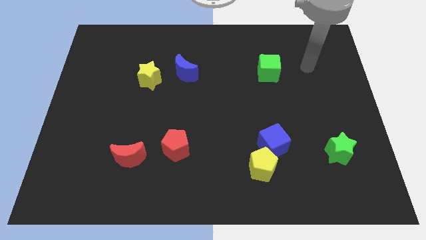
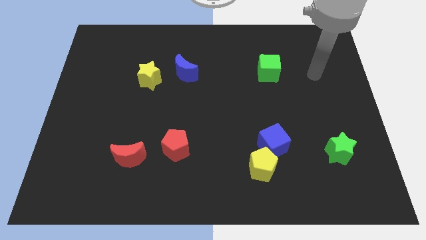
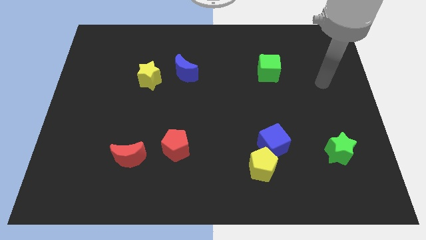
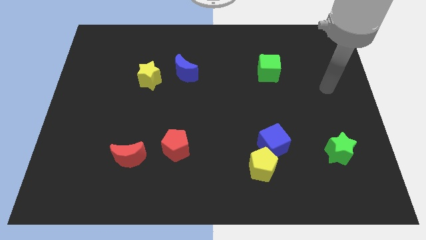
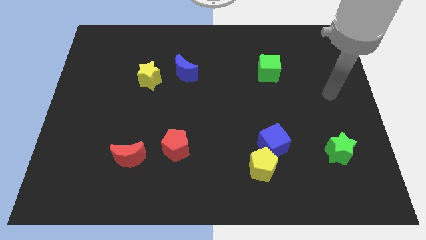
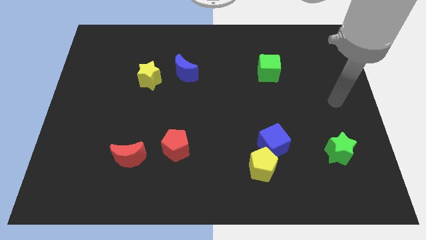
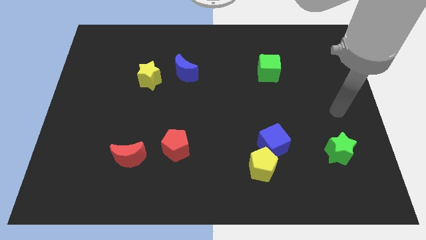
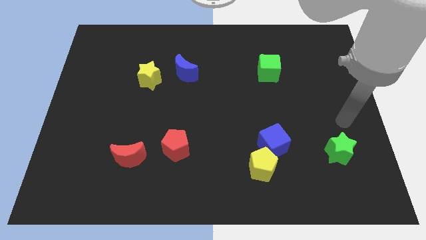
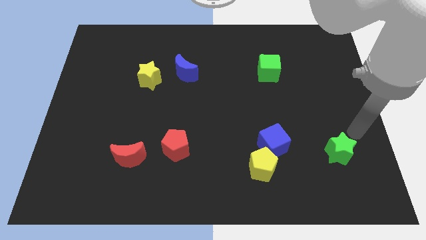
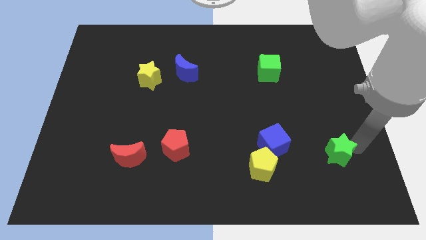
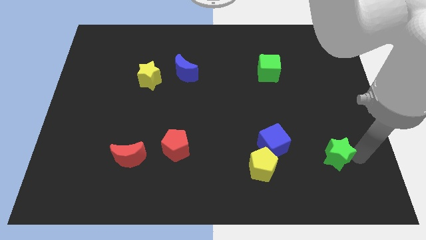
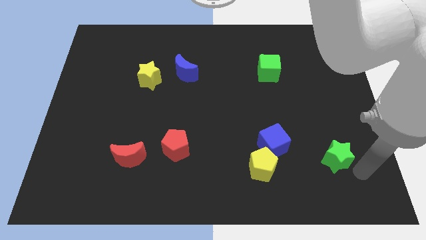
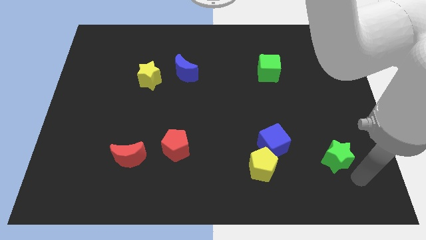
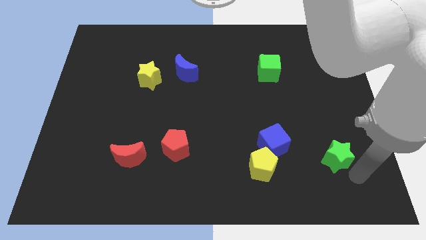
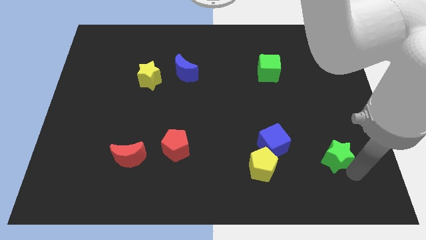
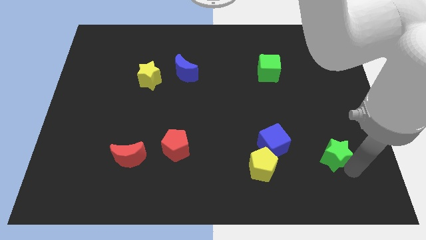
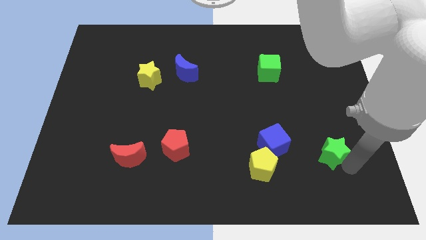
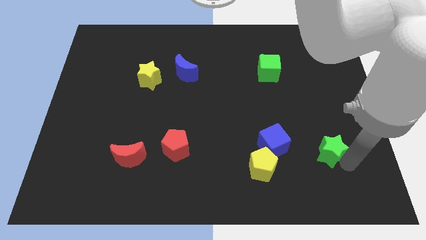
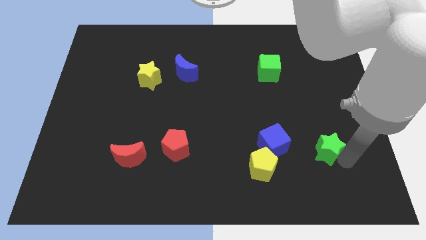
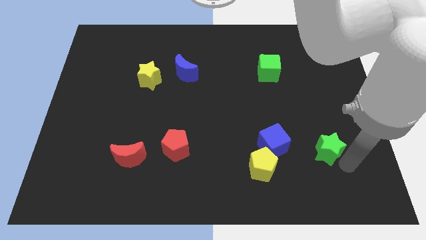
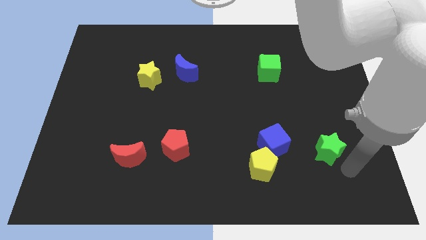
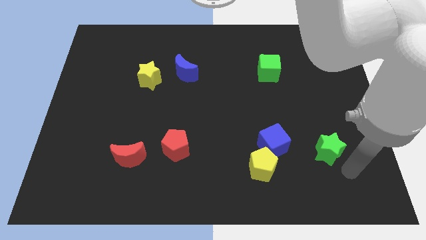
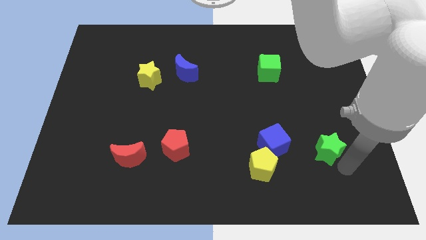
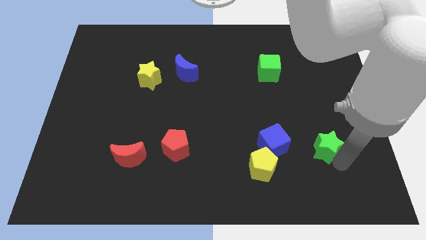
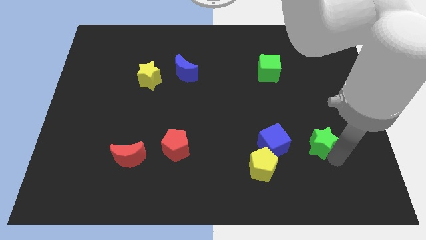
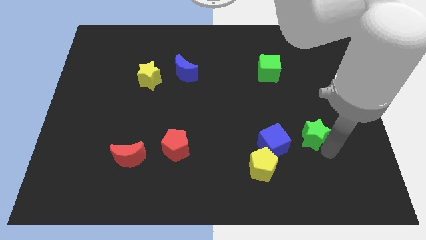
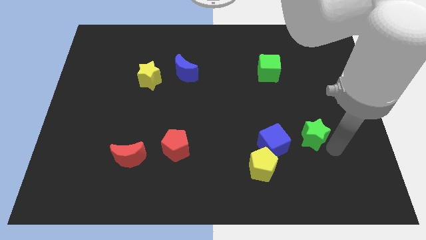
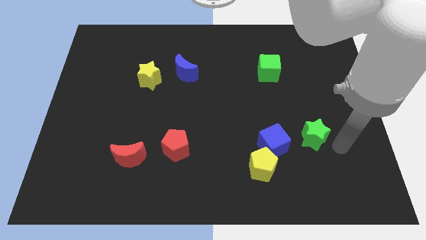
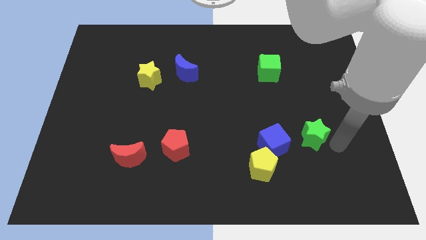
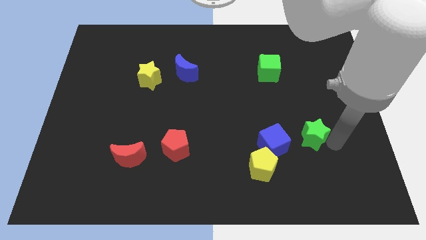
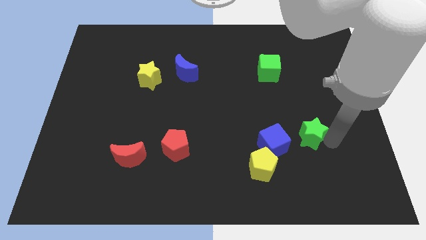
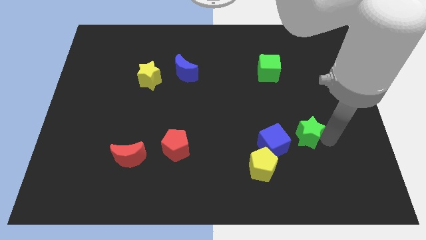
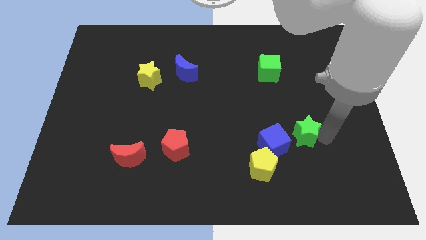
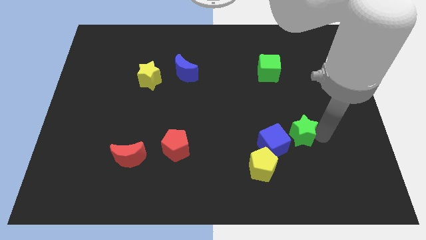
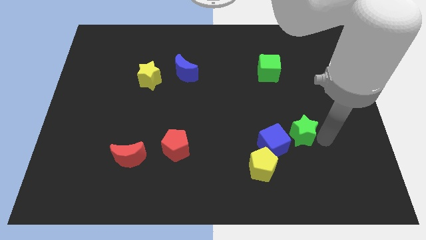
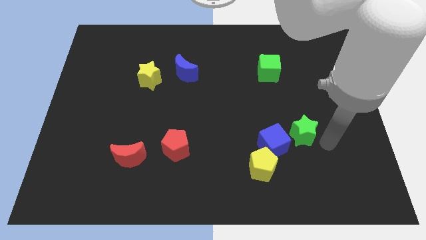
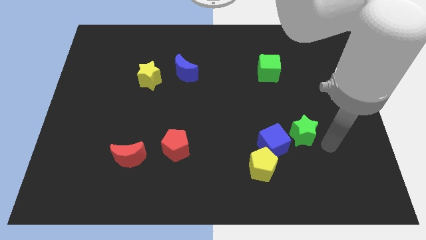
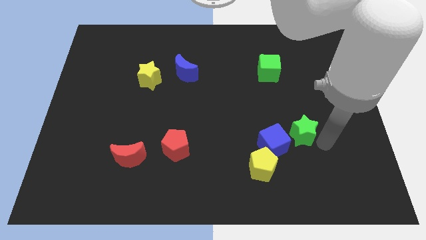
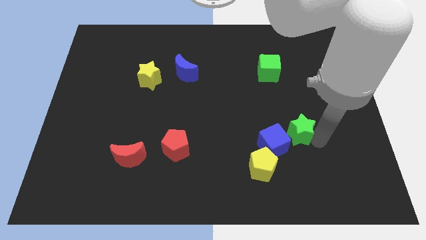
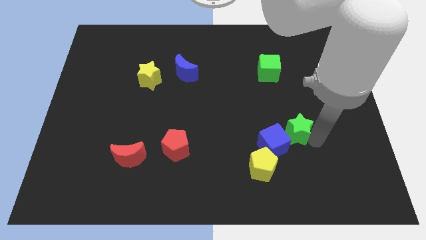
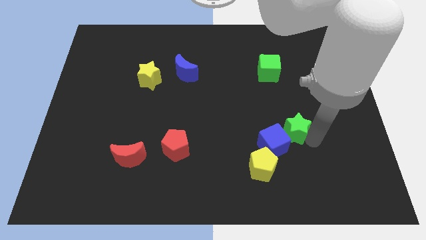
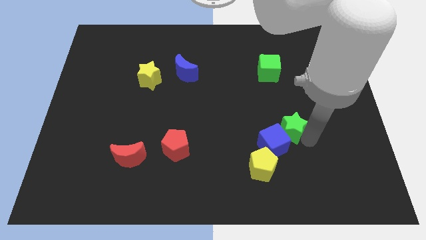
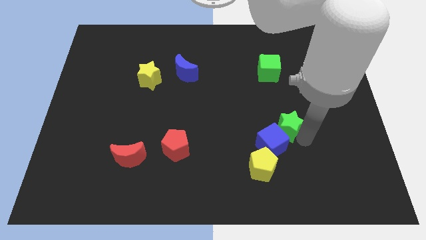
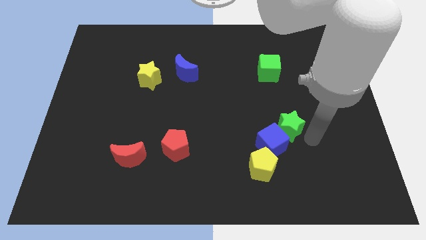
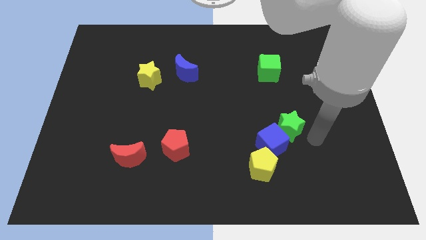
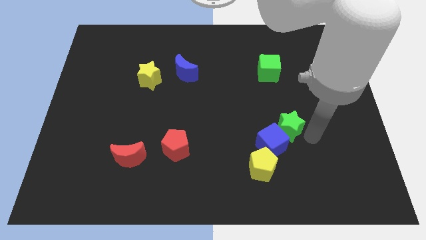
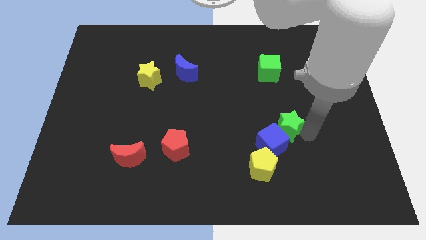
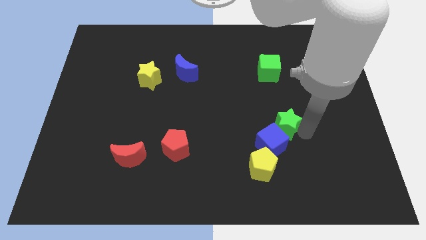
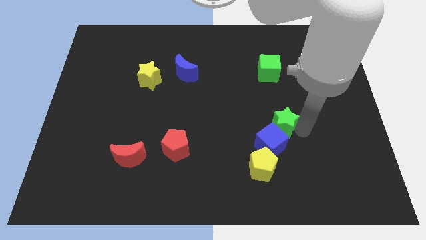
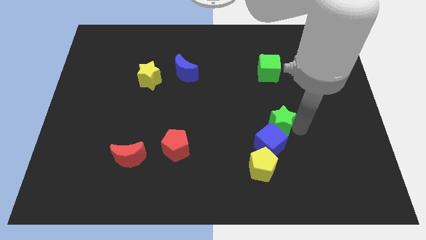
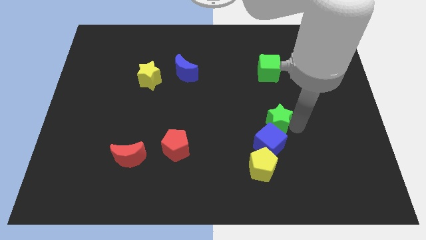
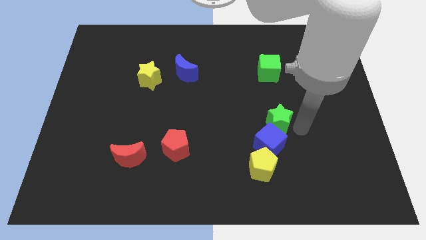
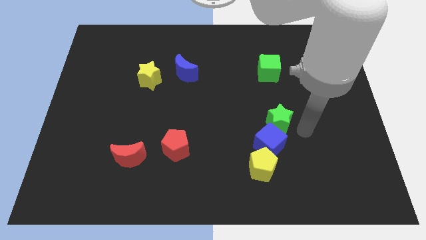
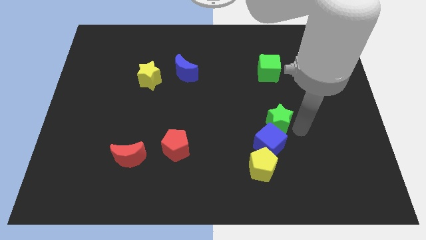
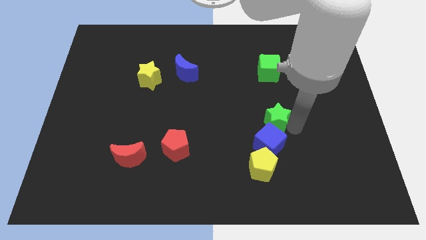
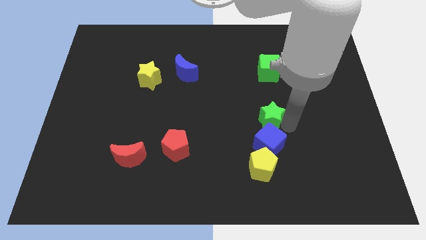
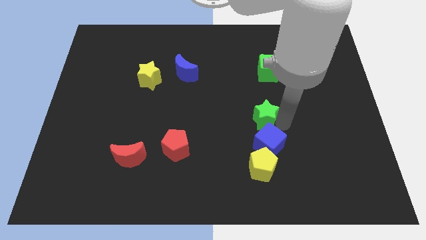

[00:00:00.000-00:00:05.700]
push the green star to the center

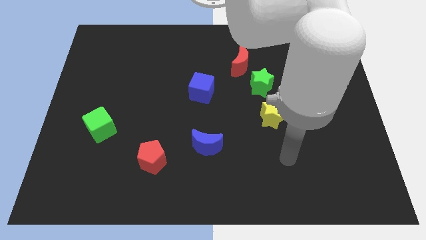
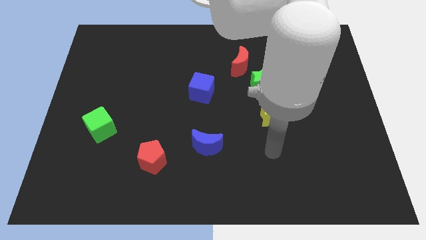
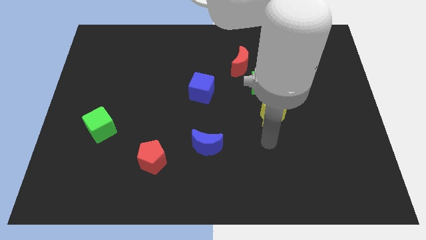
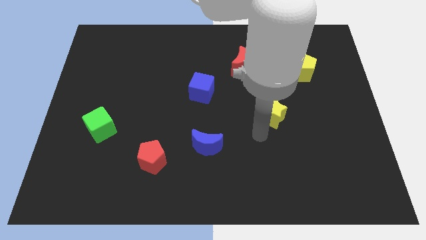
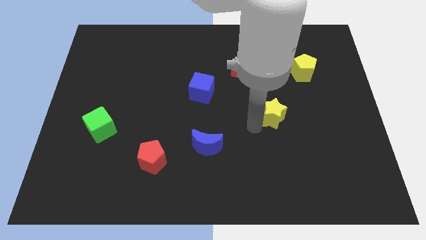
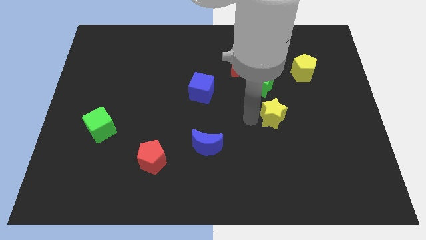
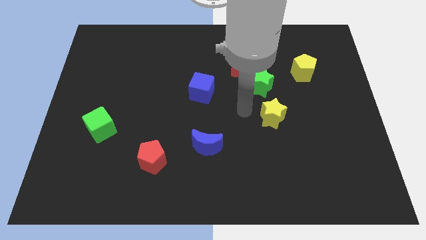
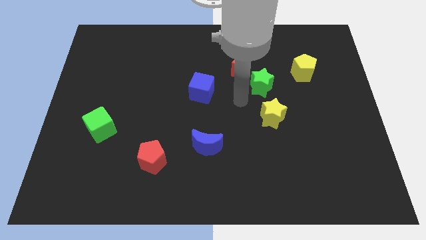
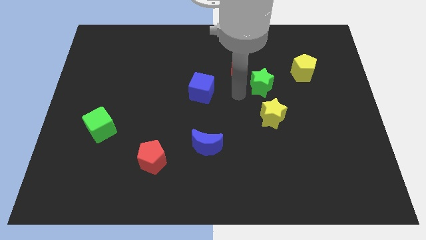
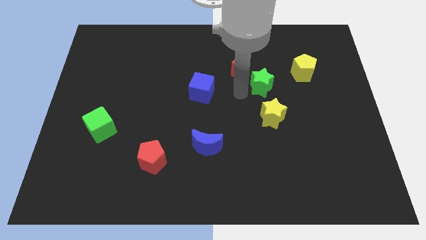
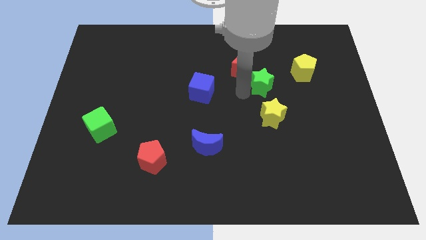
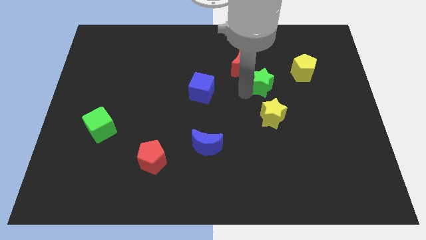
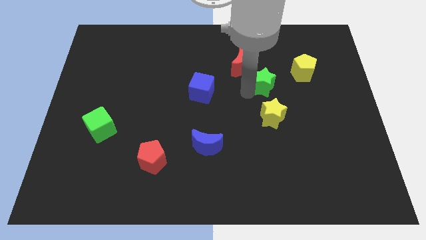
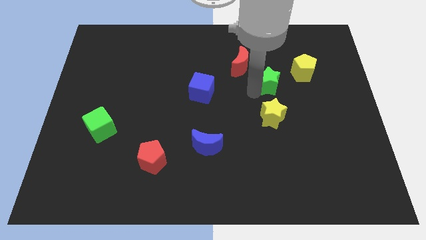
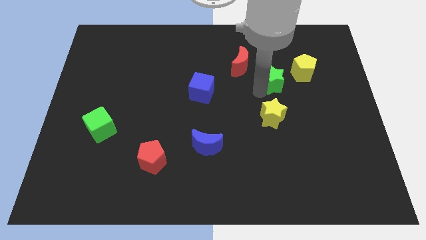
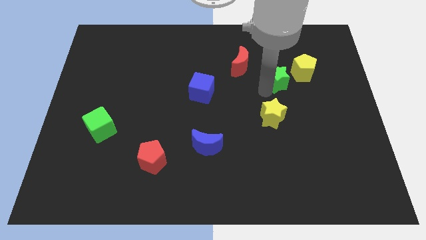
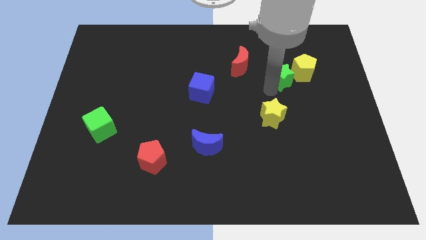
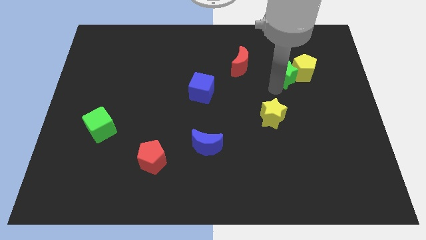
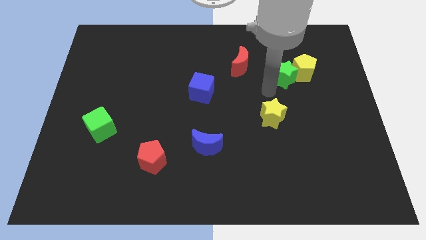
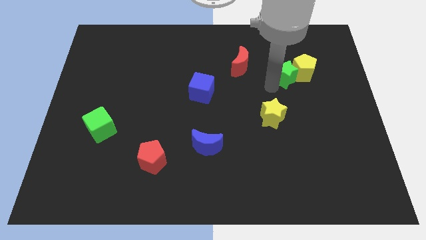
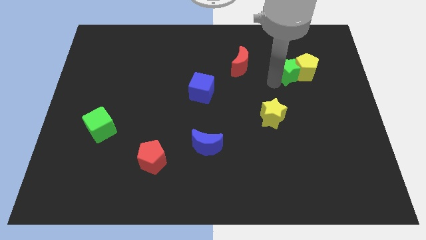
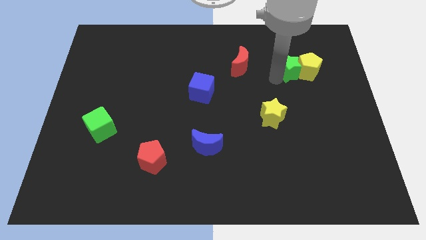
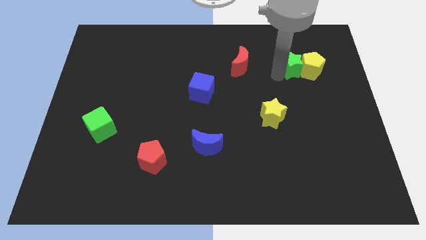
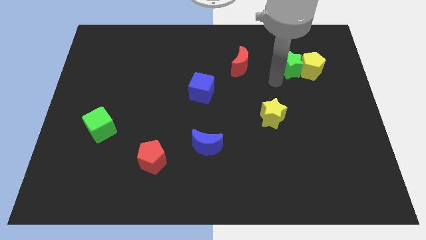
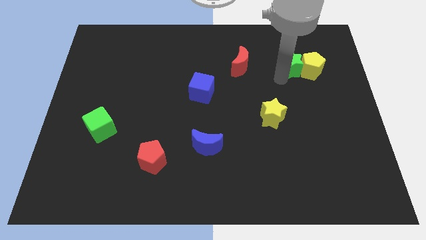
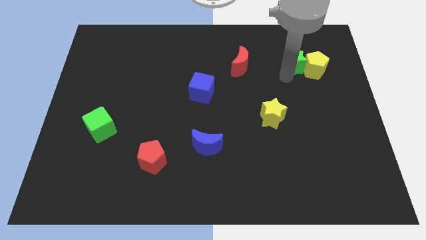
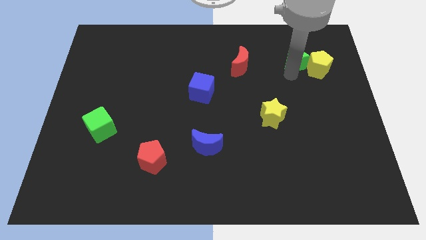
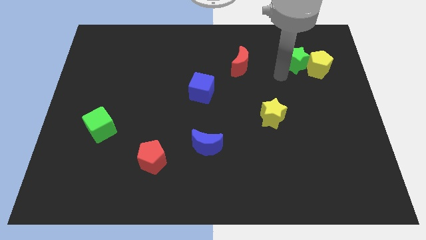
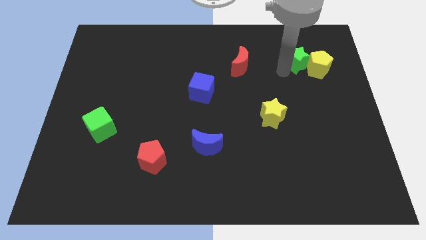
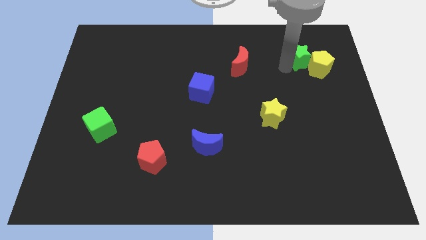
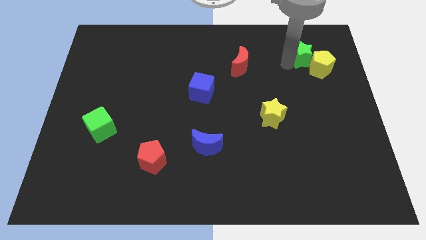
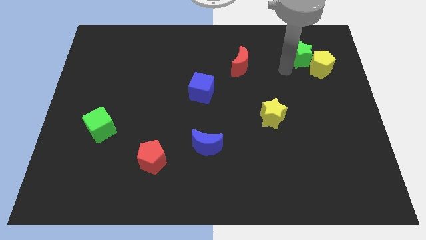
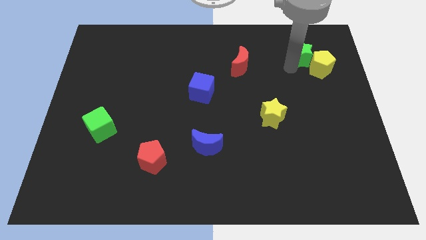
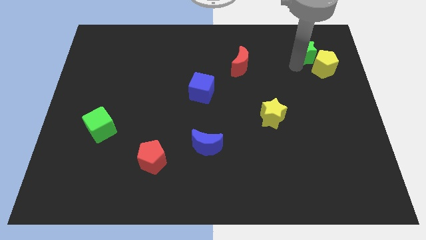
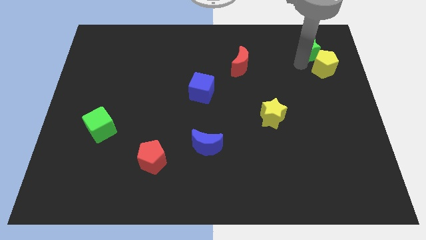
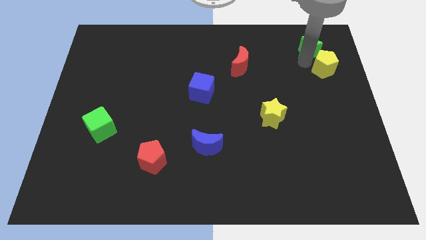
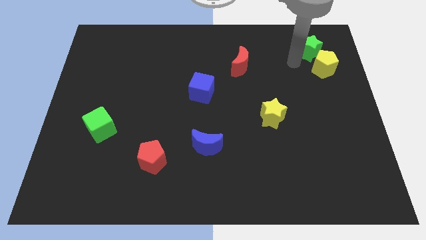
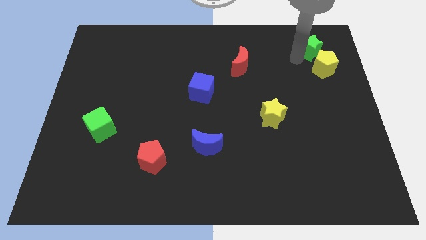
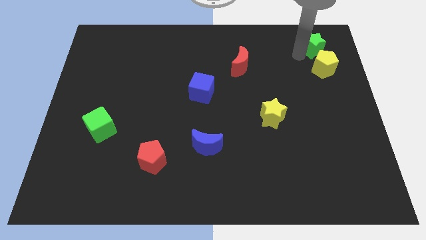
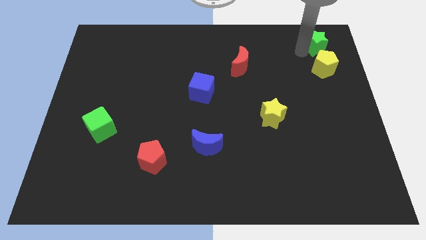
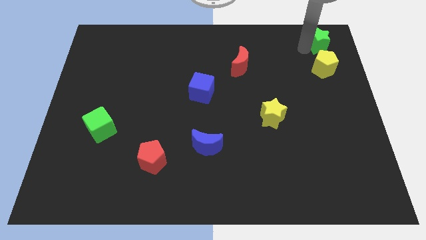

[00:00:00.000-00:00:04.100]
push the green star to the upper right corner
